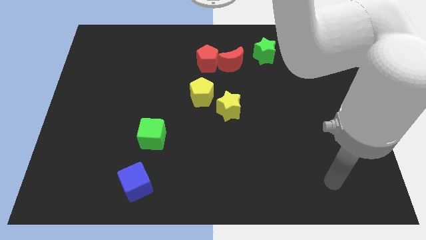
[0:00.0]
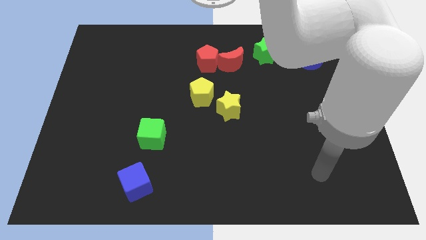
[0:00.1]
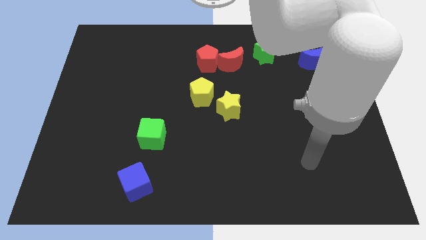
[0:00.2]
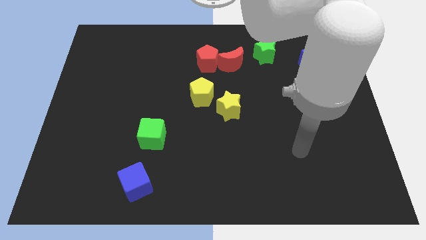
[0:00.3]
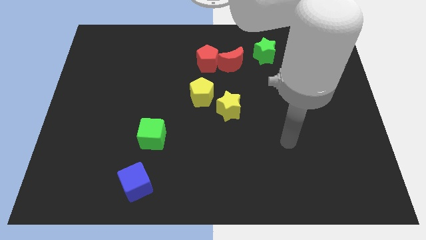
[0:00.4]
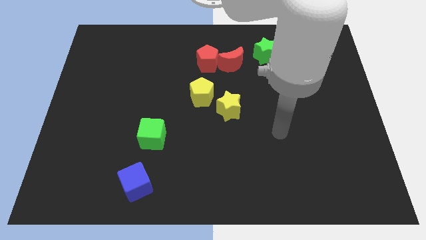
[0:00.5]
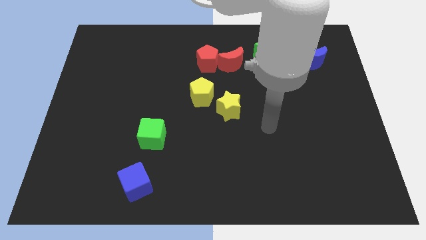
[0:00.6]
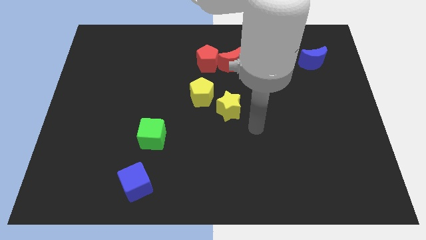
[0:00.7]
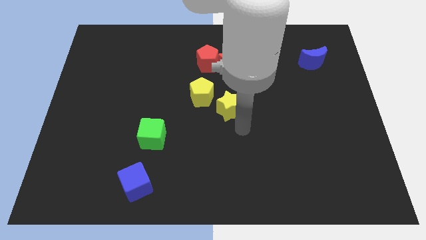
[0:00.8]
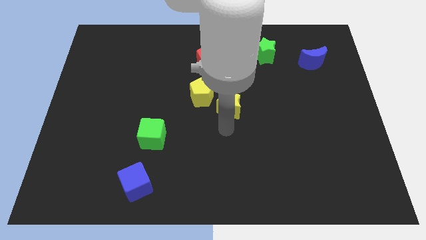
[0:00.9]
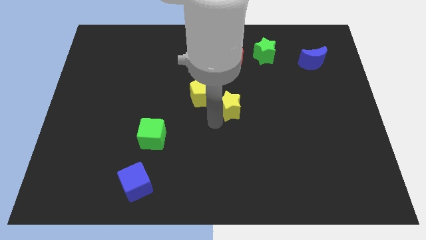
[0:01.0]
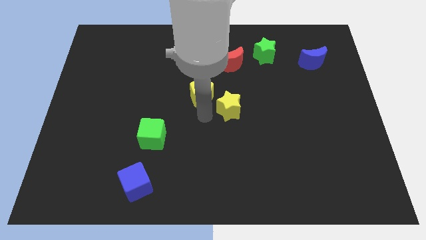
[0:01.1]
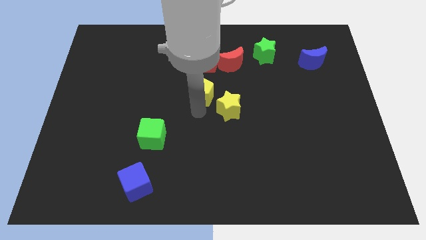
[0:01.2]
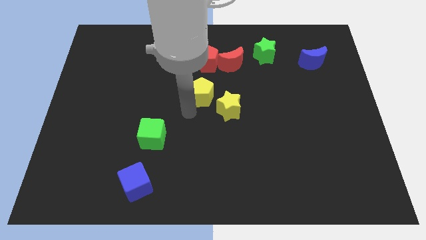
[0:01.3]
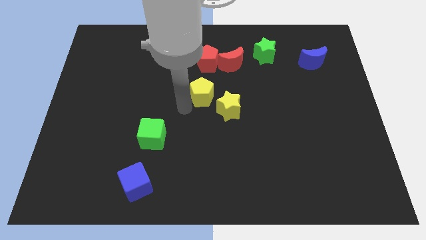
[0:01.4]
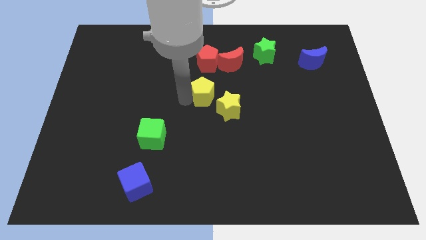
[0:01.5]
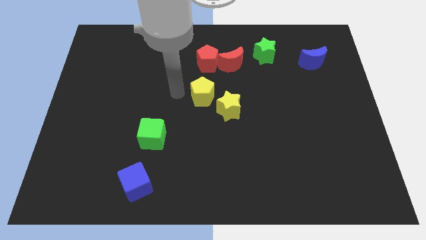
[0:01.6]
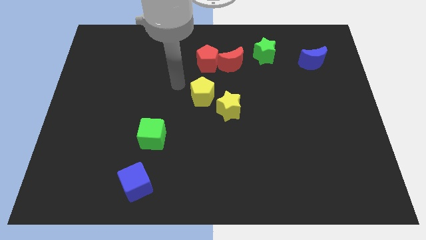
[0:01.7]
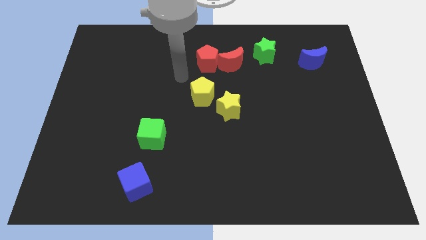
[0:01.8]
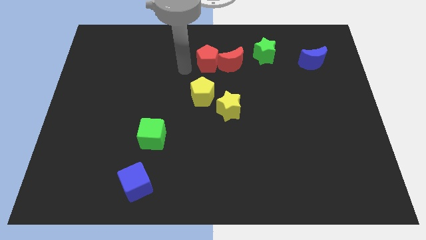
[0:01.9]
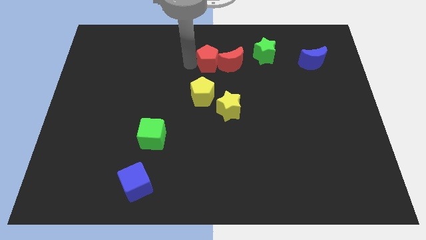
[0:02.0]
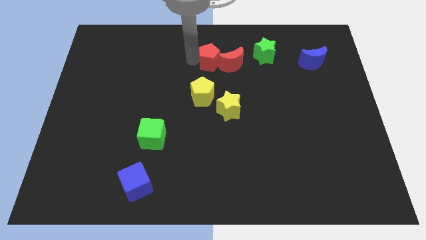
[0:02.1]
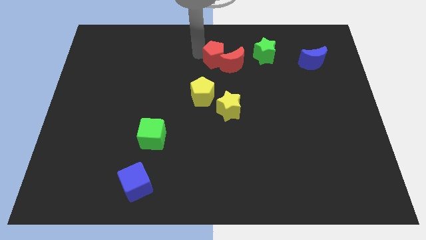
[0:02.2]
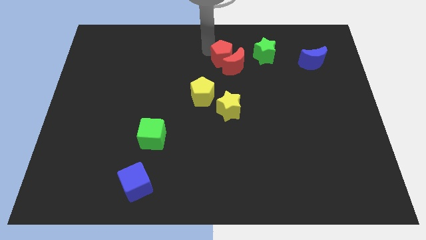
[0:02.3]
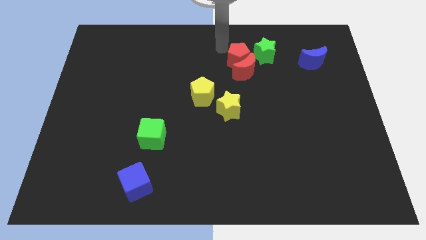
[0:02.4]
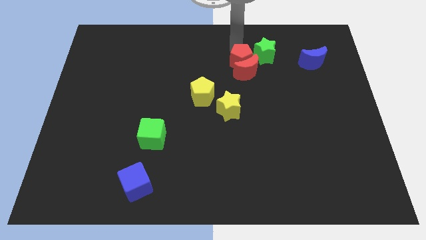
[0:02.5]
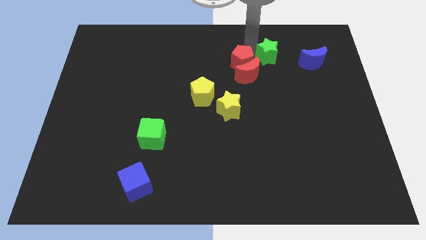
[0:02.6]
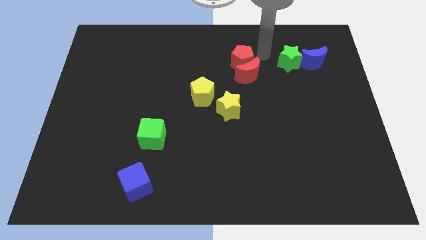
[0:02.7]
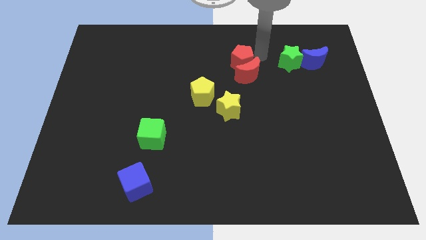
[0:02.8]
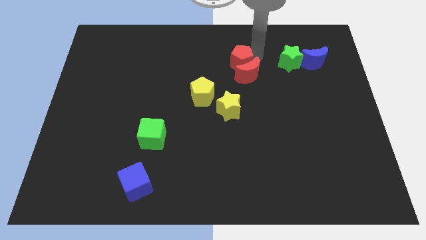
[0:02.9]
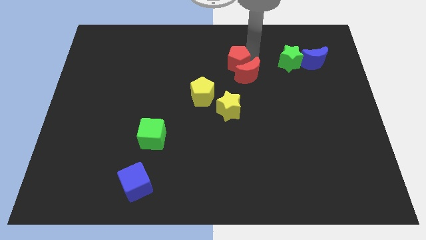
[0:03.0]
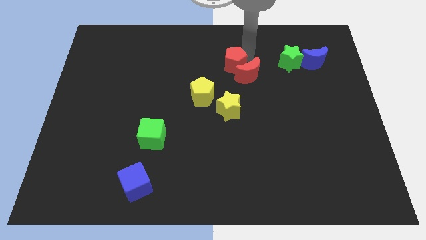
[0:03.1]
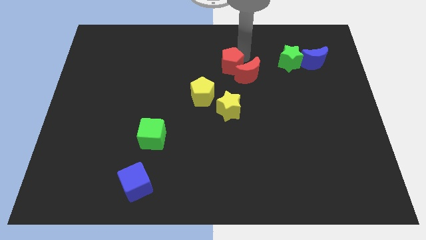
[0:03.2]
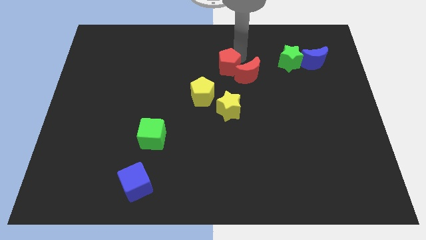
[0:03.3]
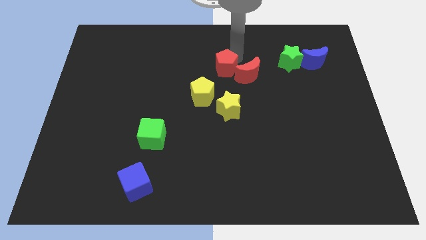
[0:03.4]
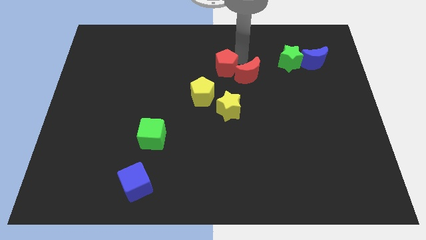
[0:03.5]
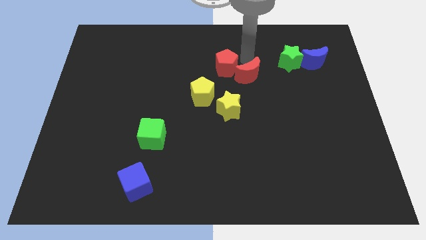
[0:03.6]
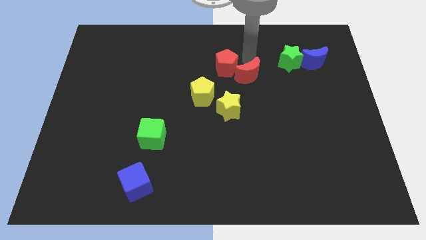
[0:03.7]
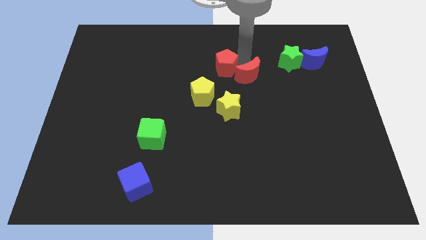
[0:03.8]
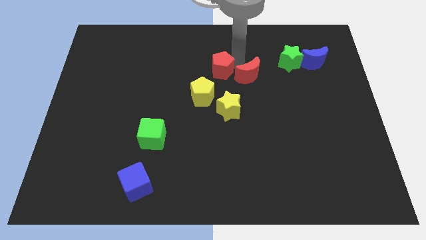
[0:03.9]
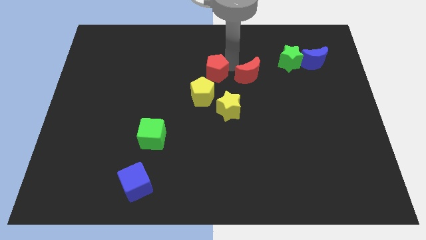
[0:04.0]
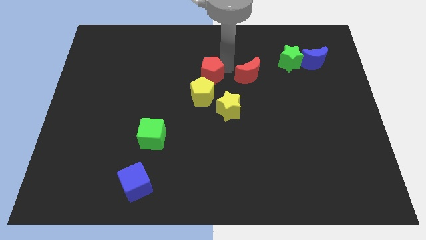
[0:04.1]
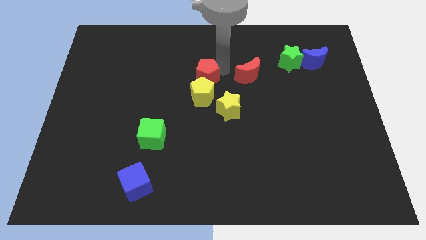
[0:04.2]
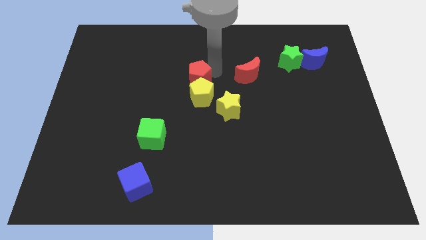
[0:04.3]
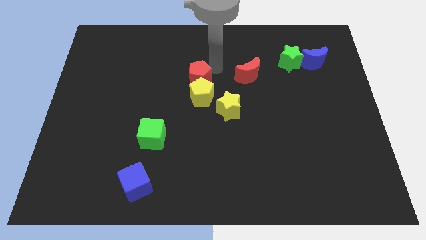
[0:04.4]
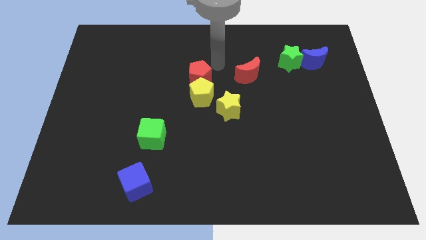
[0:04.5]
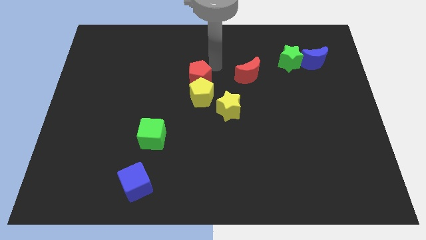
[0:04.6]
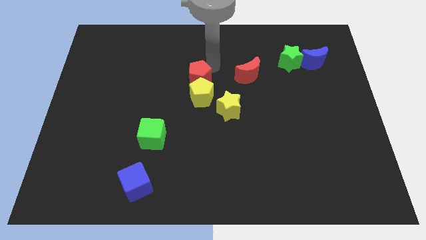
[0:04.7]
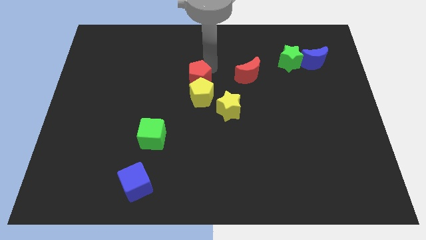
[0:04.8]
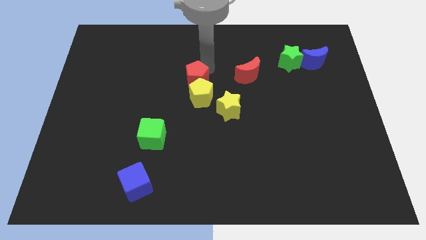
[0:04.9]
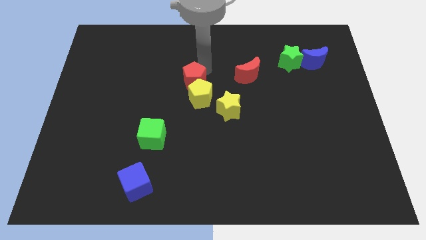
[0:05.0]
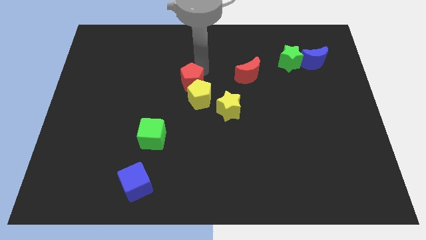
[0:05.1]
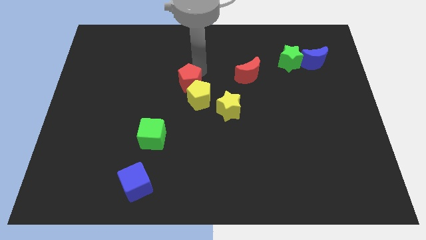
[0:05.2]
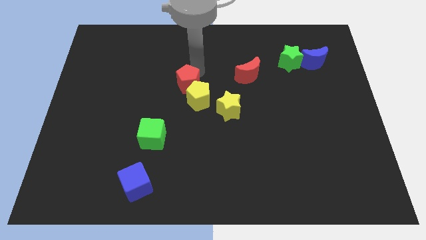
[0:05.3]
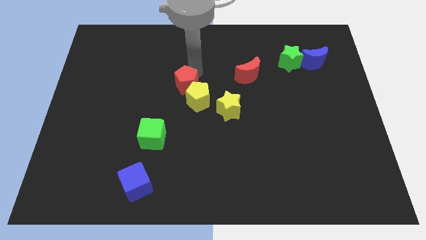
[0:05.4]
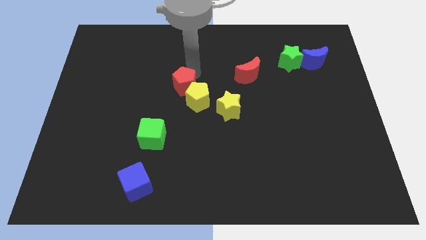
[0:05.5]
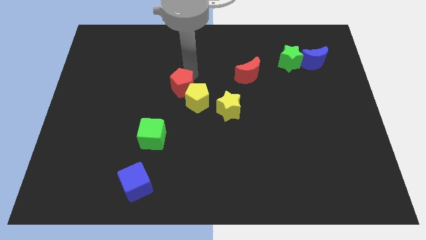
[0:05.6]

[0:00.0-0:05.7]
slide the red pentagon downwards slightly

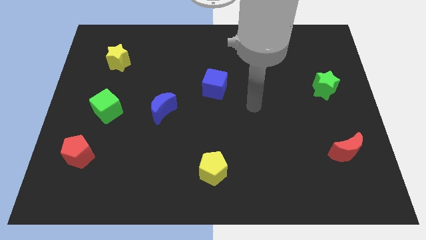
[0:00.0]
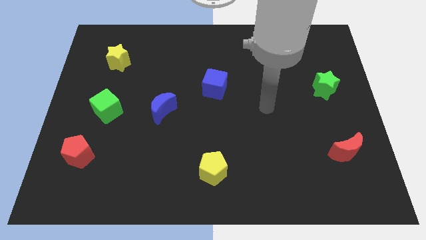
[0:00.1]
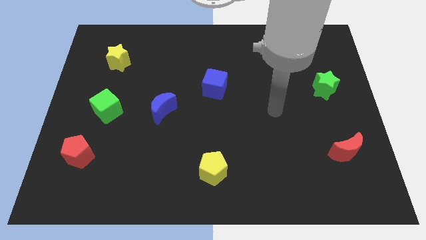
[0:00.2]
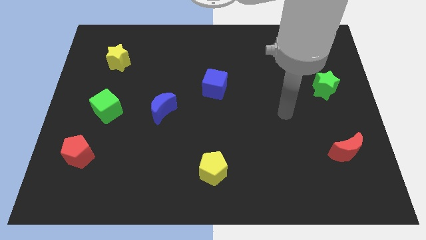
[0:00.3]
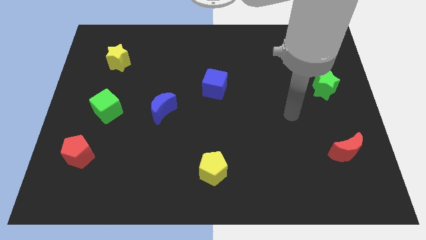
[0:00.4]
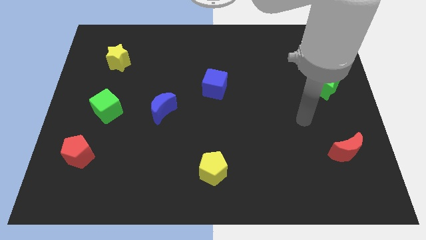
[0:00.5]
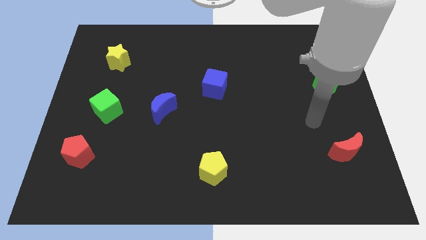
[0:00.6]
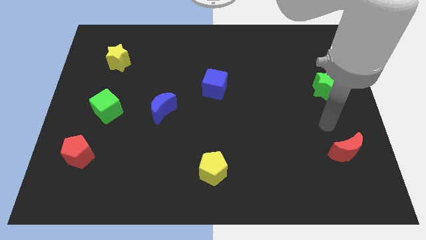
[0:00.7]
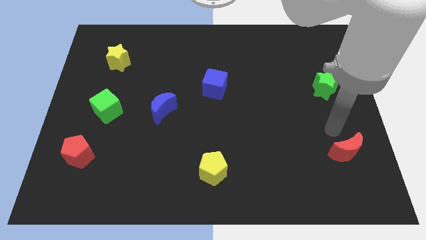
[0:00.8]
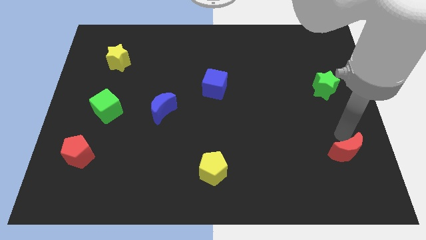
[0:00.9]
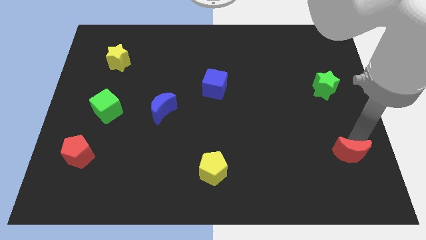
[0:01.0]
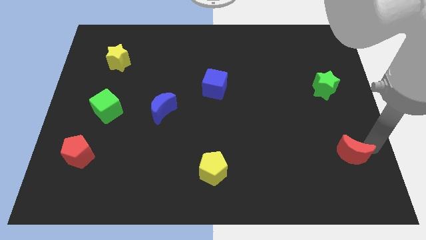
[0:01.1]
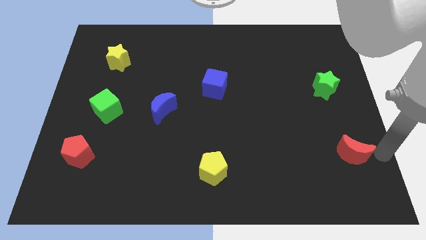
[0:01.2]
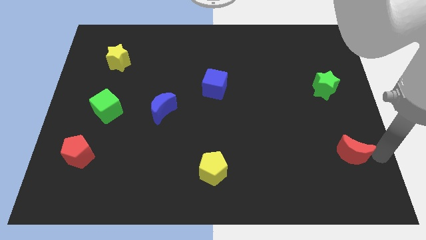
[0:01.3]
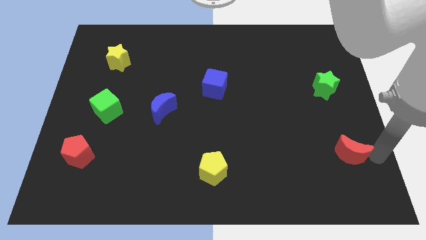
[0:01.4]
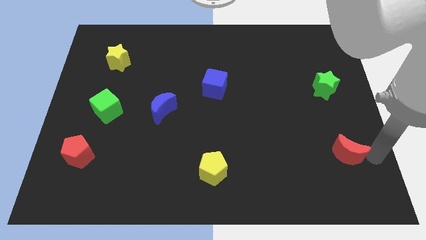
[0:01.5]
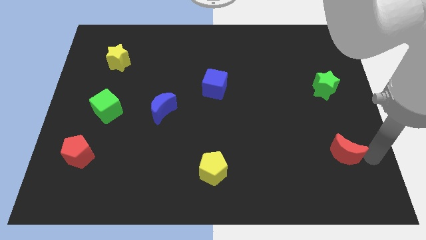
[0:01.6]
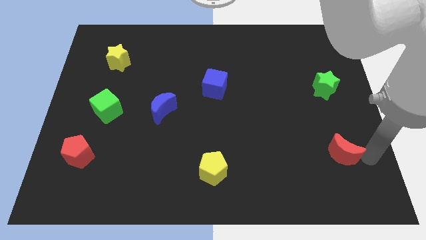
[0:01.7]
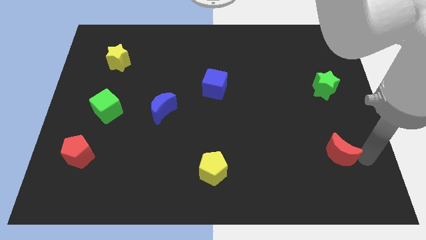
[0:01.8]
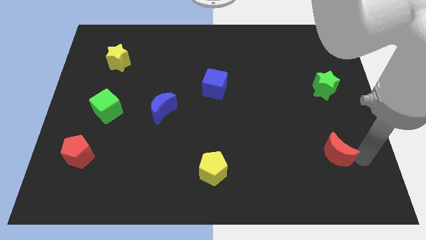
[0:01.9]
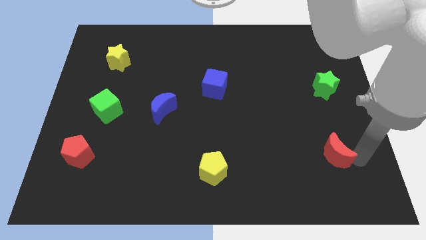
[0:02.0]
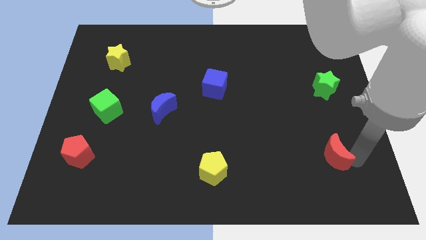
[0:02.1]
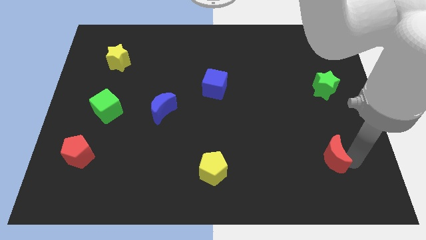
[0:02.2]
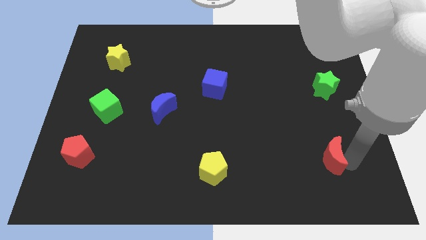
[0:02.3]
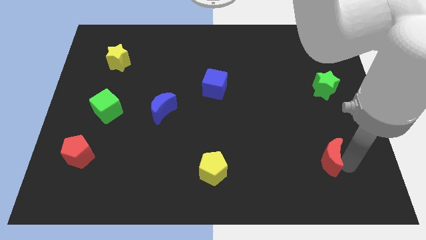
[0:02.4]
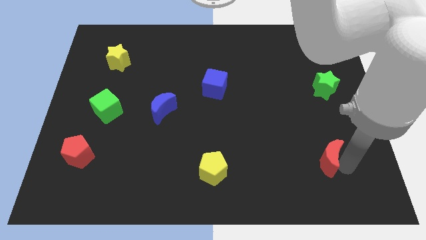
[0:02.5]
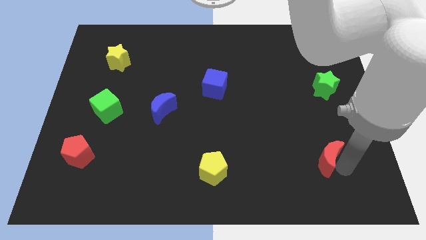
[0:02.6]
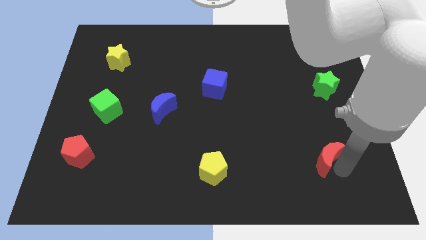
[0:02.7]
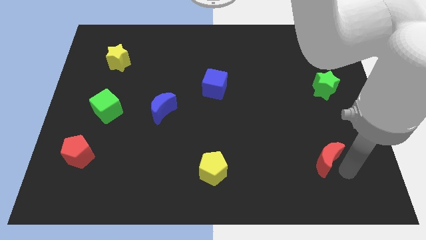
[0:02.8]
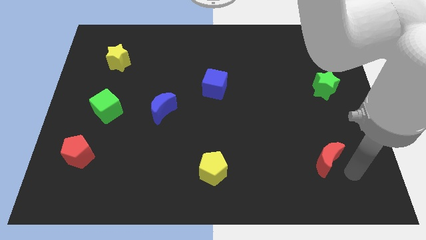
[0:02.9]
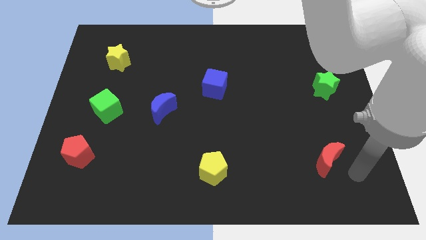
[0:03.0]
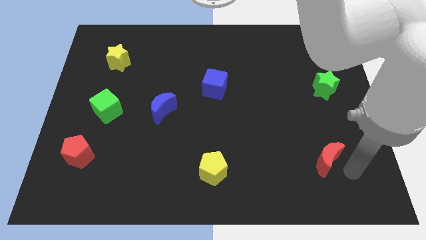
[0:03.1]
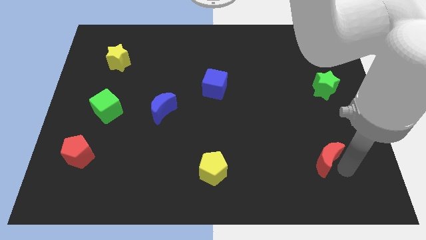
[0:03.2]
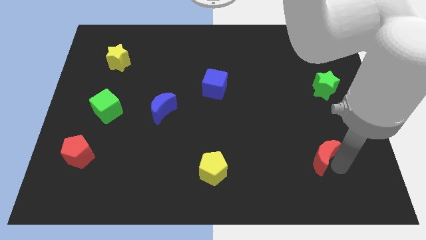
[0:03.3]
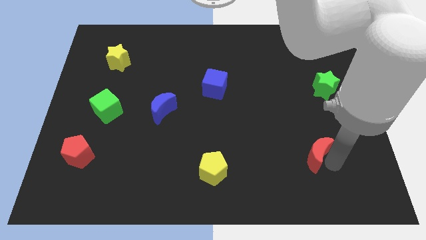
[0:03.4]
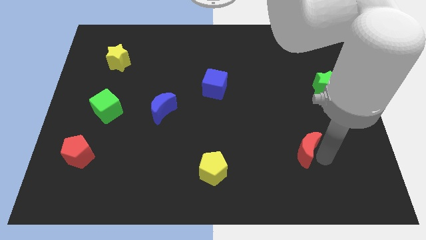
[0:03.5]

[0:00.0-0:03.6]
slide the red moon left somewhat
